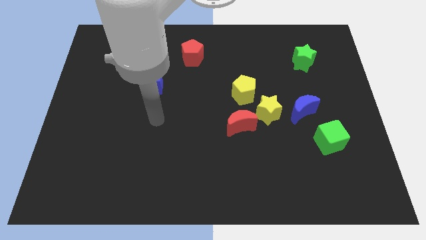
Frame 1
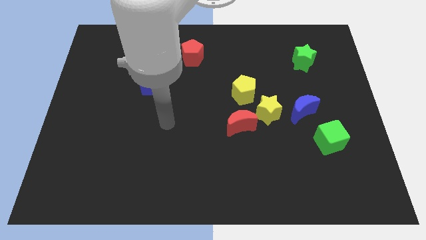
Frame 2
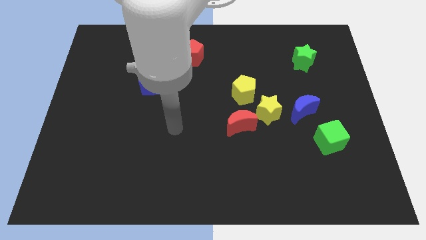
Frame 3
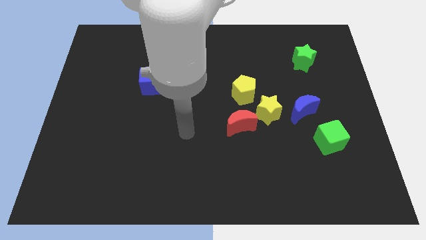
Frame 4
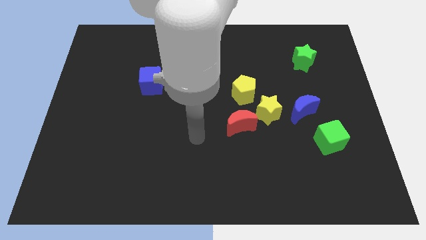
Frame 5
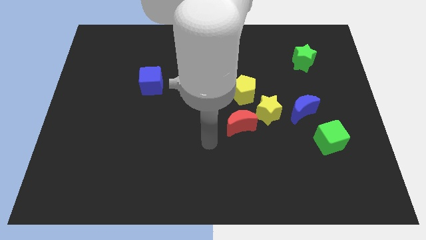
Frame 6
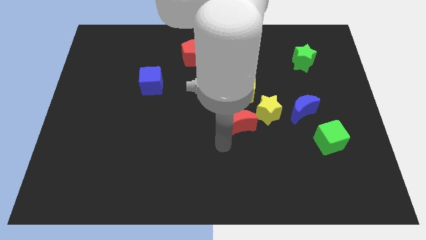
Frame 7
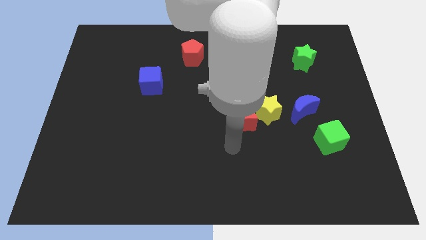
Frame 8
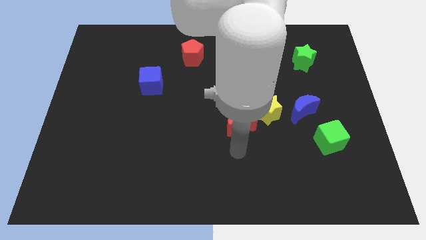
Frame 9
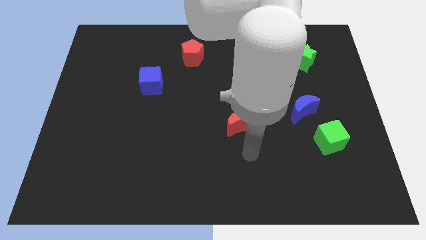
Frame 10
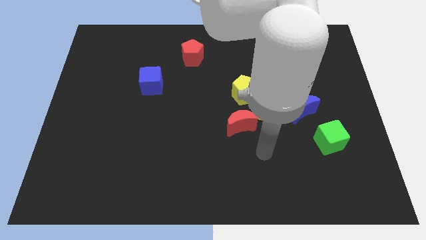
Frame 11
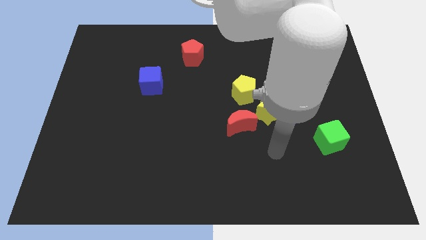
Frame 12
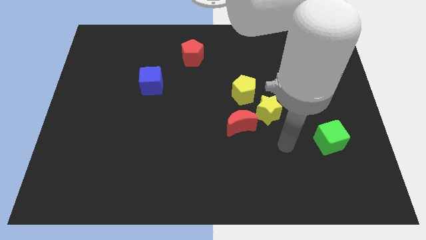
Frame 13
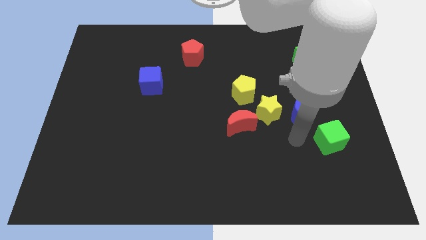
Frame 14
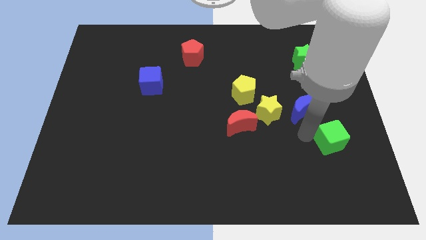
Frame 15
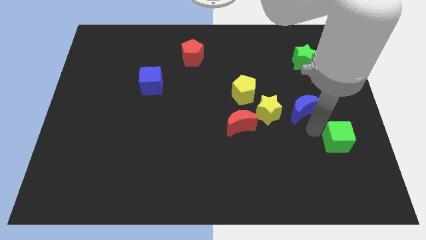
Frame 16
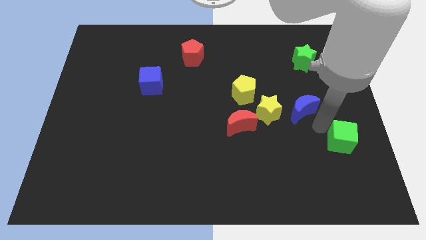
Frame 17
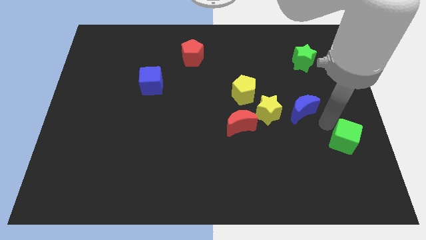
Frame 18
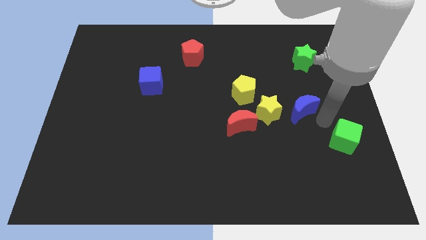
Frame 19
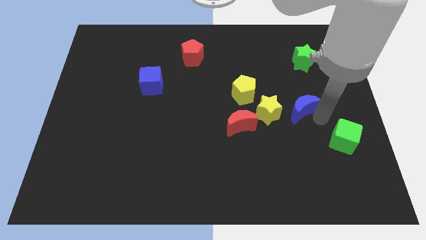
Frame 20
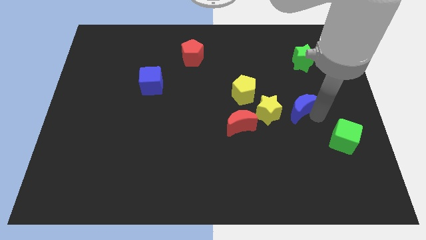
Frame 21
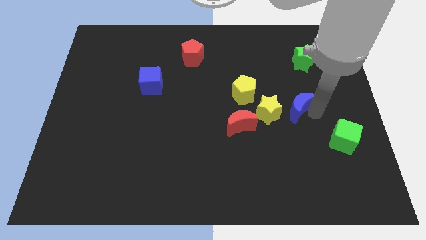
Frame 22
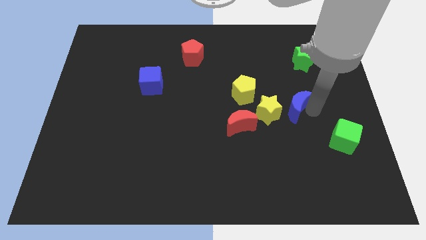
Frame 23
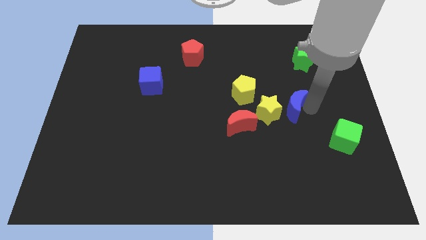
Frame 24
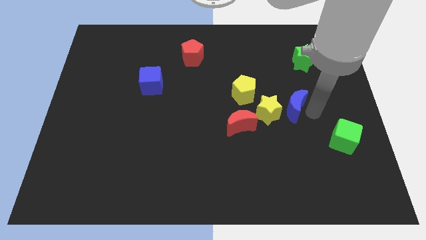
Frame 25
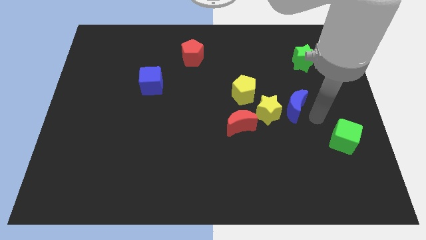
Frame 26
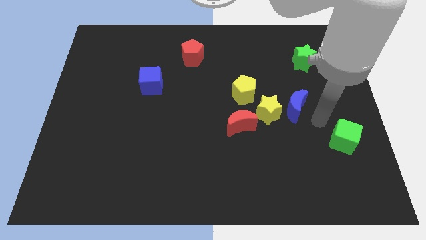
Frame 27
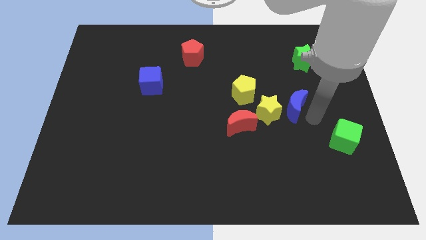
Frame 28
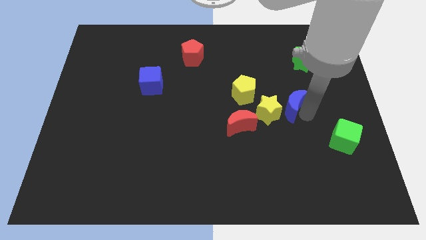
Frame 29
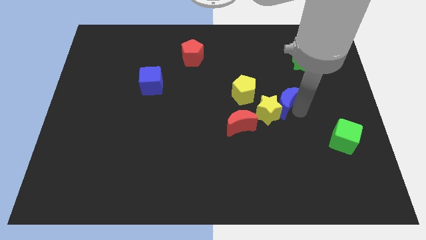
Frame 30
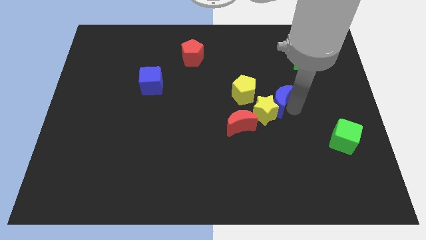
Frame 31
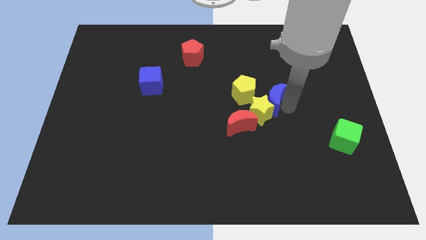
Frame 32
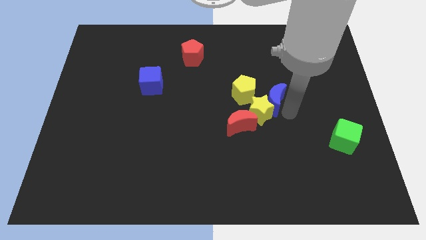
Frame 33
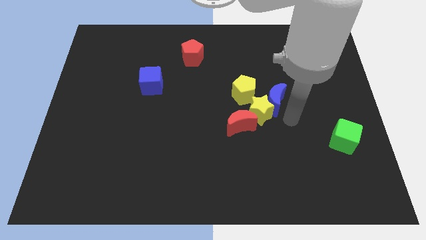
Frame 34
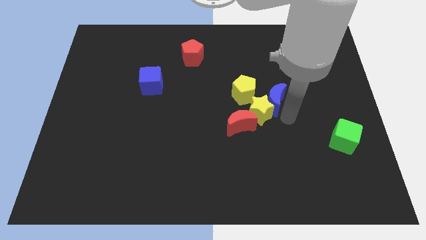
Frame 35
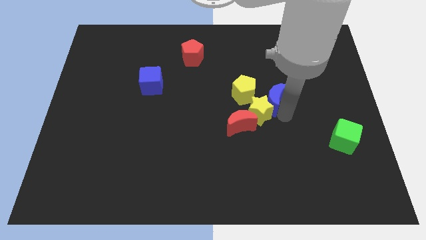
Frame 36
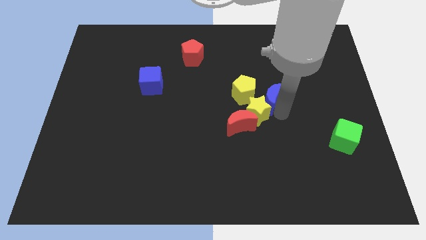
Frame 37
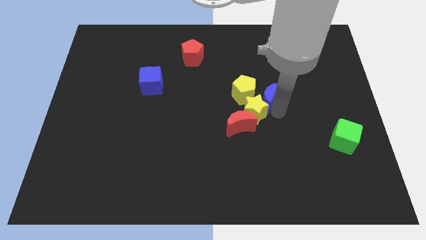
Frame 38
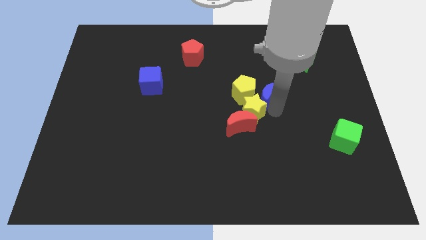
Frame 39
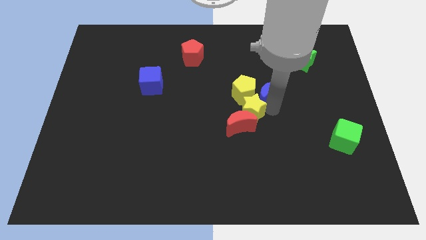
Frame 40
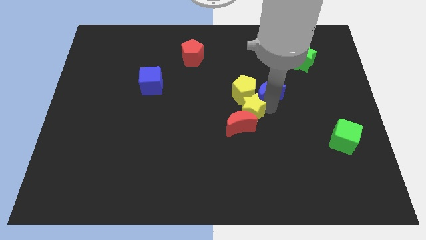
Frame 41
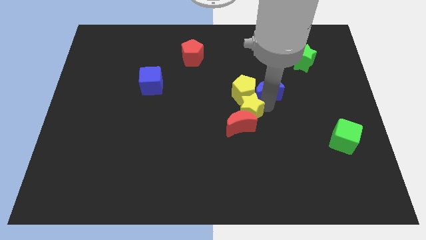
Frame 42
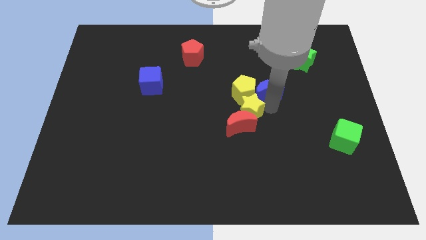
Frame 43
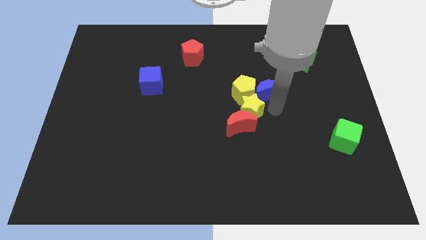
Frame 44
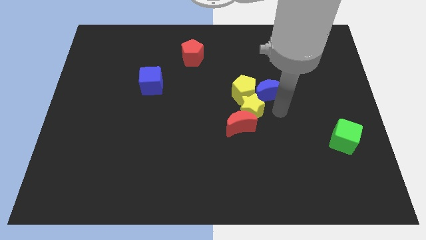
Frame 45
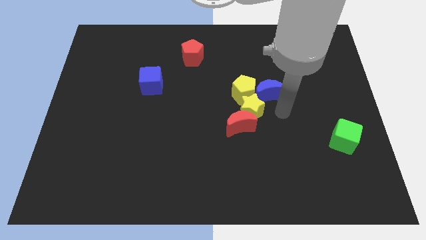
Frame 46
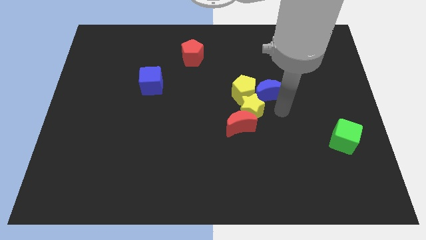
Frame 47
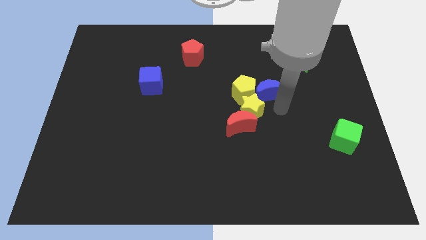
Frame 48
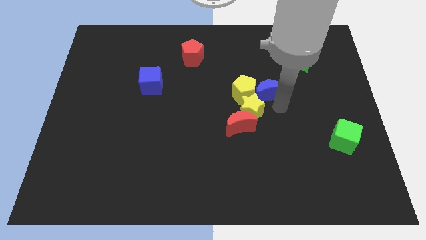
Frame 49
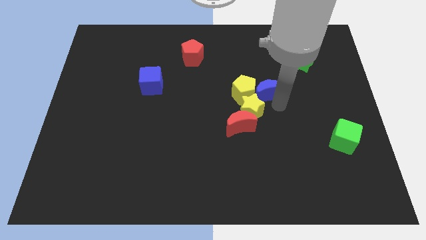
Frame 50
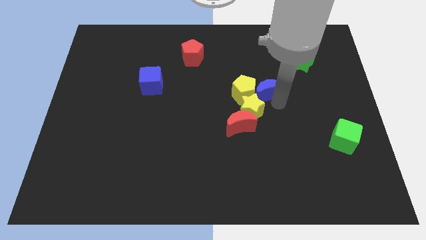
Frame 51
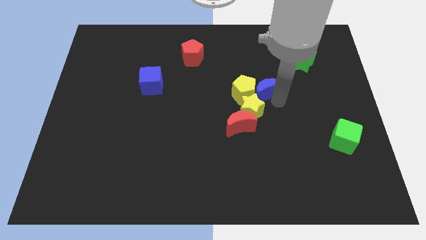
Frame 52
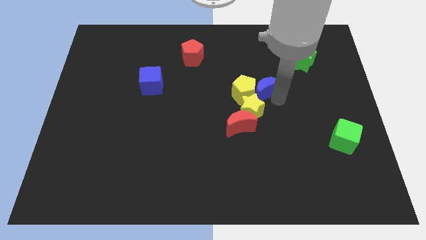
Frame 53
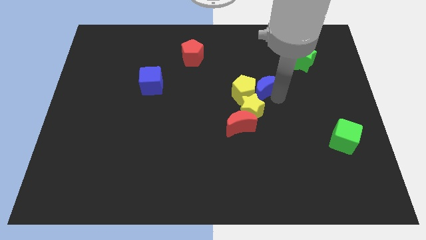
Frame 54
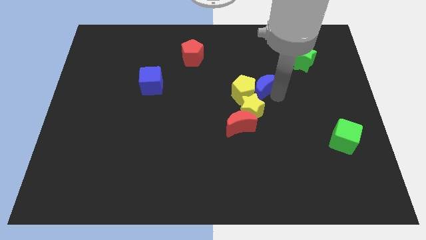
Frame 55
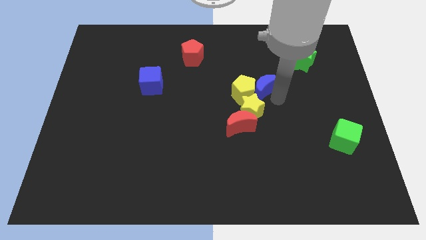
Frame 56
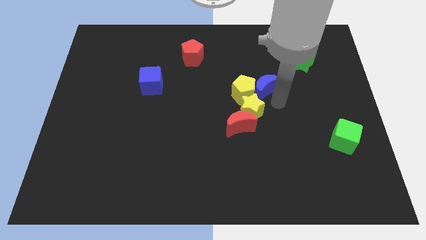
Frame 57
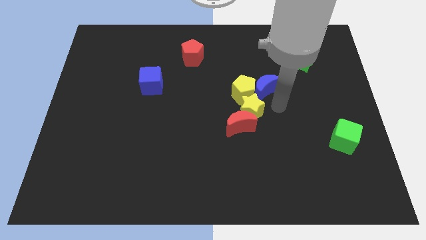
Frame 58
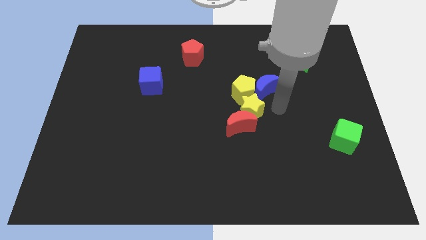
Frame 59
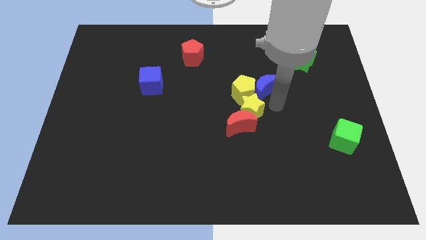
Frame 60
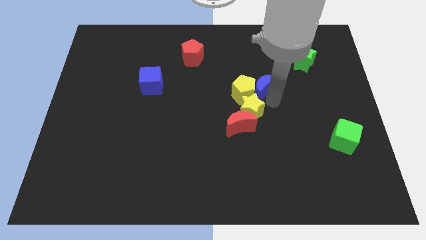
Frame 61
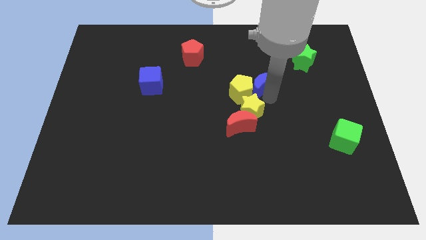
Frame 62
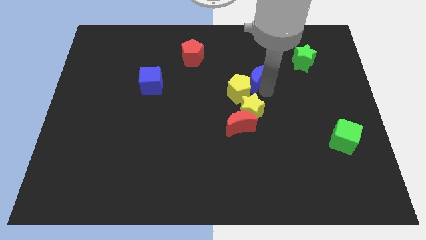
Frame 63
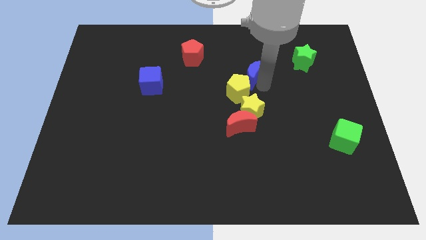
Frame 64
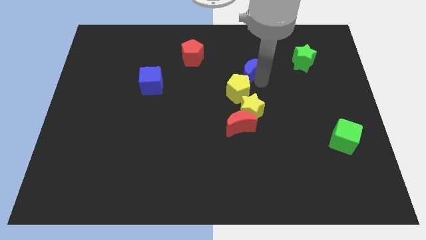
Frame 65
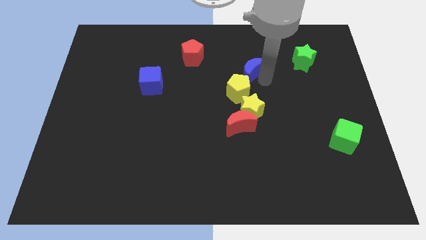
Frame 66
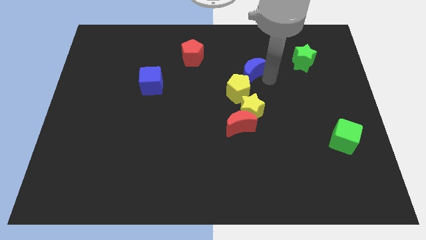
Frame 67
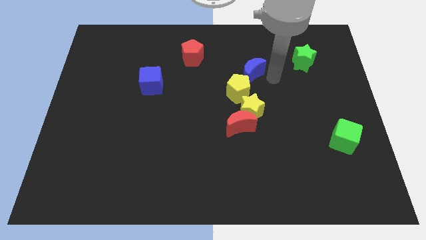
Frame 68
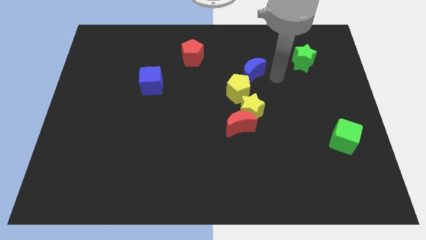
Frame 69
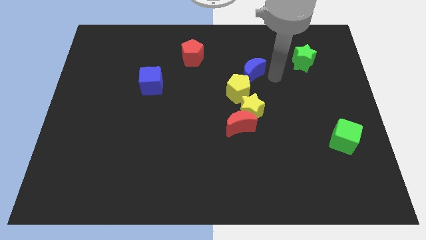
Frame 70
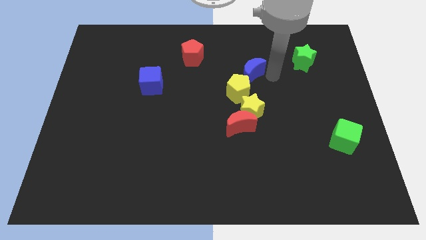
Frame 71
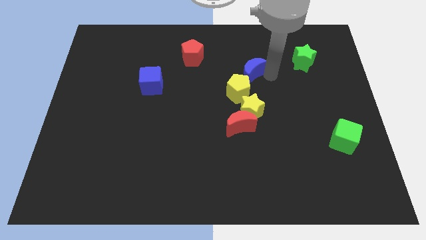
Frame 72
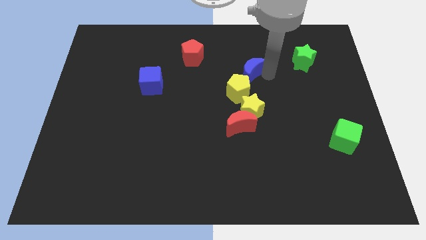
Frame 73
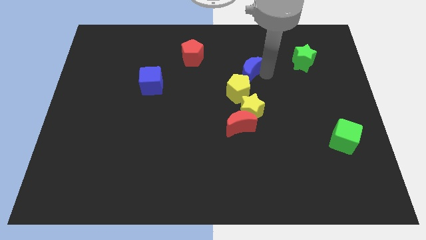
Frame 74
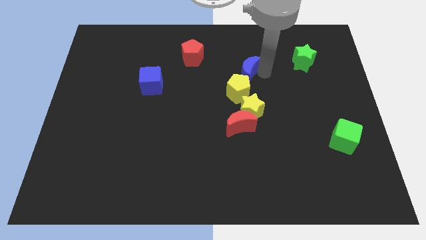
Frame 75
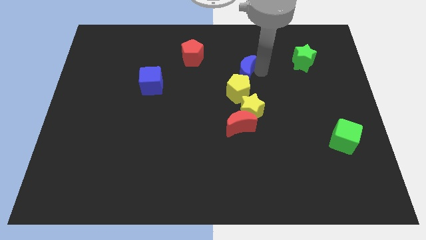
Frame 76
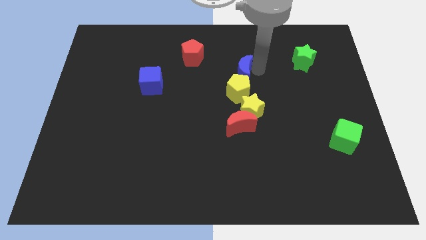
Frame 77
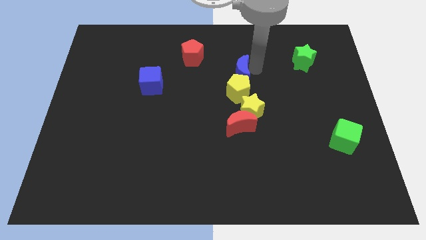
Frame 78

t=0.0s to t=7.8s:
slide the blue moon to the top left of the yellow pentagon

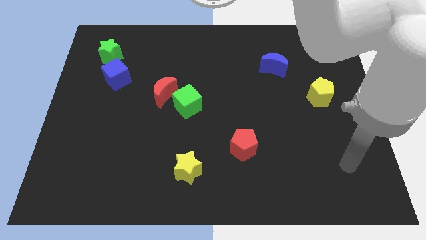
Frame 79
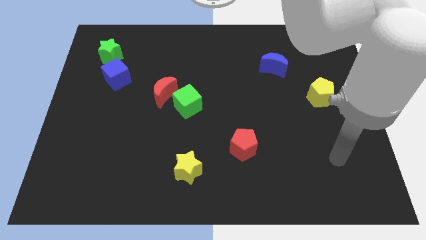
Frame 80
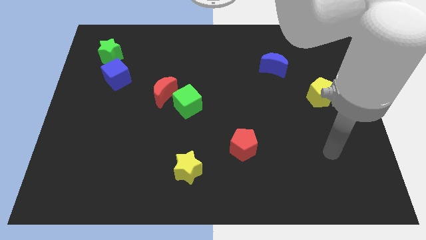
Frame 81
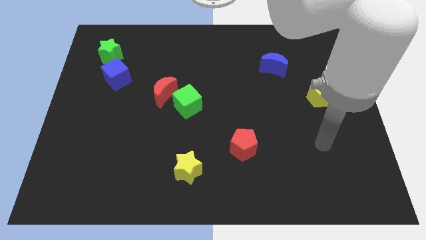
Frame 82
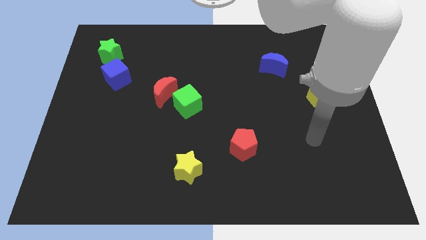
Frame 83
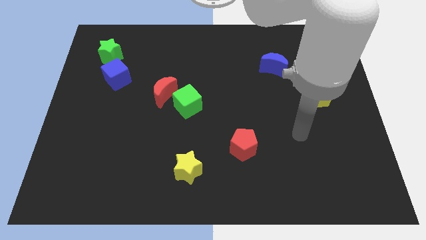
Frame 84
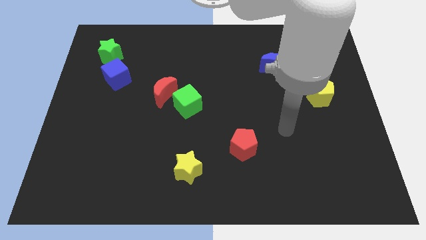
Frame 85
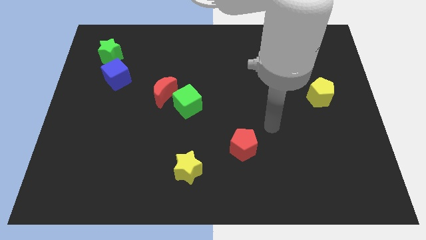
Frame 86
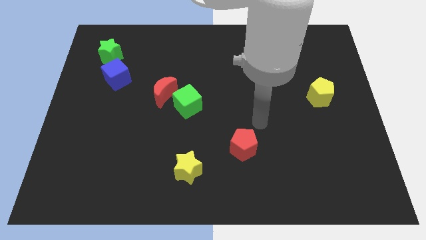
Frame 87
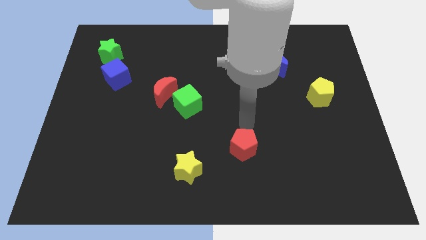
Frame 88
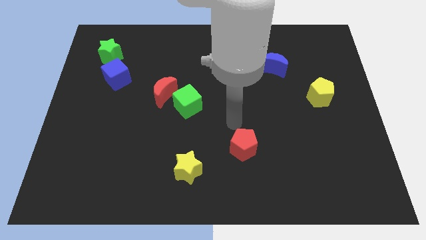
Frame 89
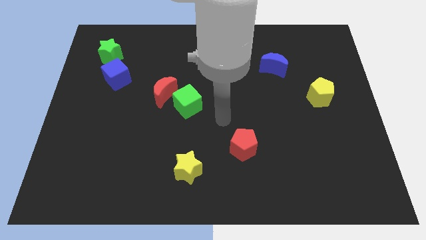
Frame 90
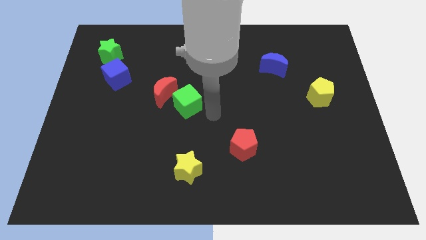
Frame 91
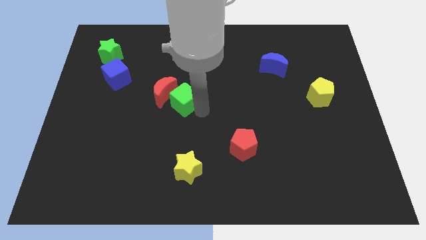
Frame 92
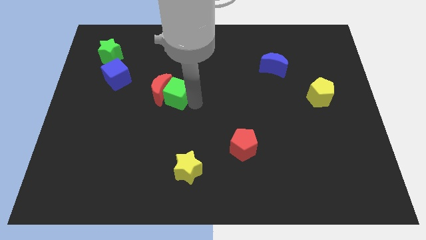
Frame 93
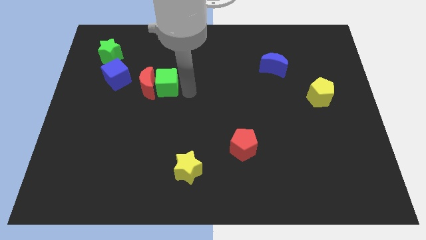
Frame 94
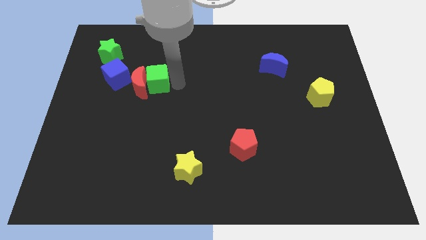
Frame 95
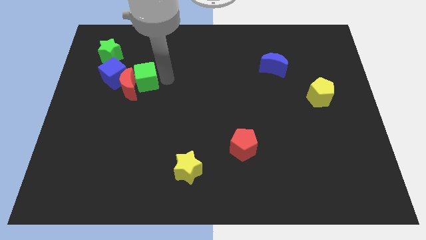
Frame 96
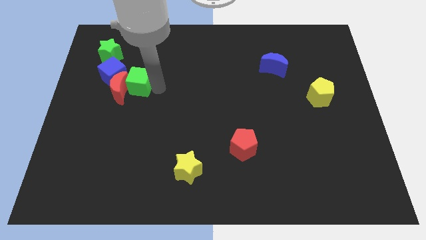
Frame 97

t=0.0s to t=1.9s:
push the red moon to the bottom side of the green star
